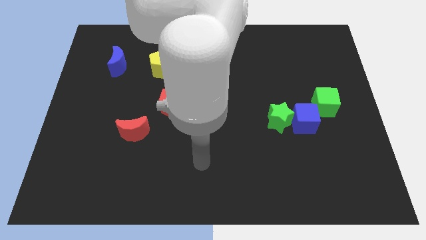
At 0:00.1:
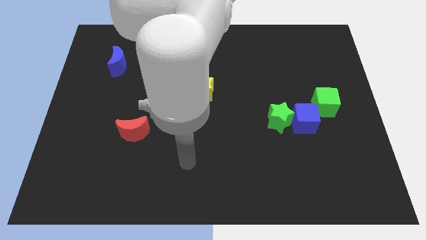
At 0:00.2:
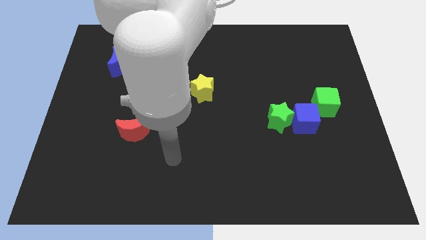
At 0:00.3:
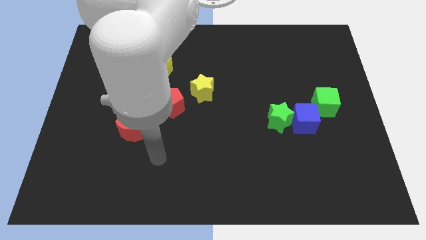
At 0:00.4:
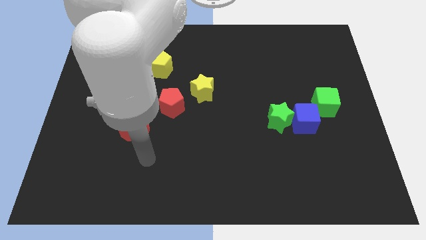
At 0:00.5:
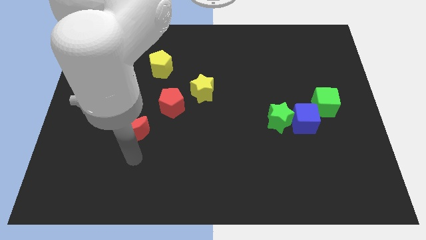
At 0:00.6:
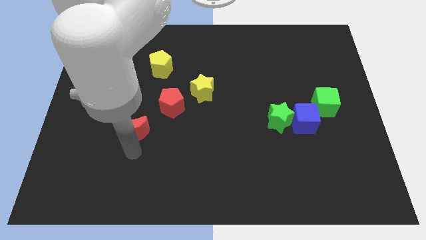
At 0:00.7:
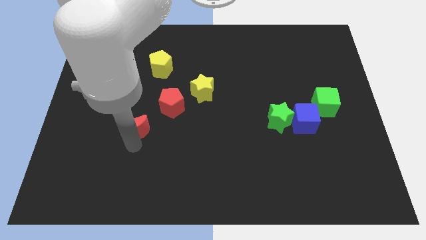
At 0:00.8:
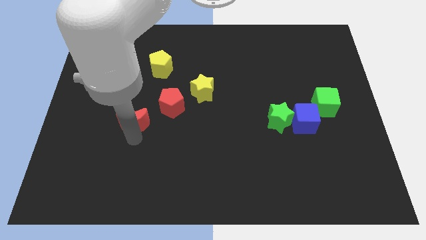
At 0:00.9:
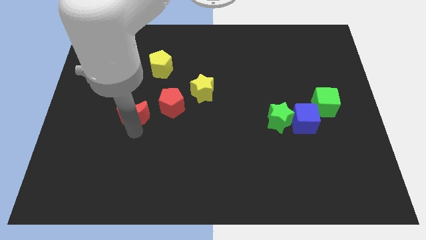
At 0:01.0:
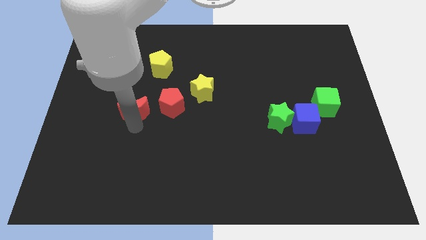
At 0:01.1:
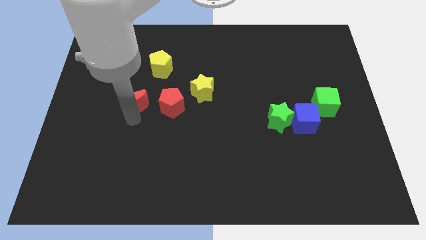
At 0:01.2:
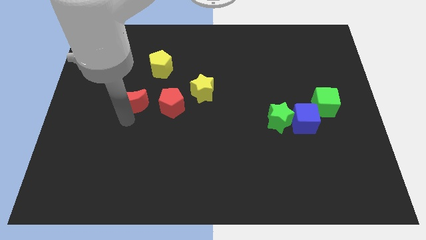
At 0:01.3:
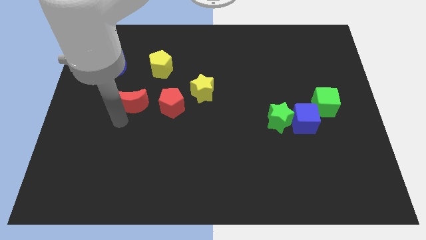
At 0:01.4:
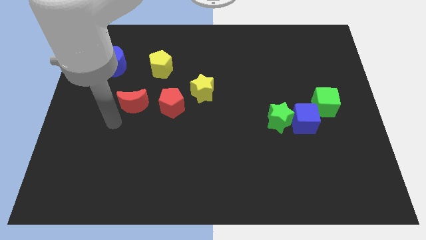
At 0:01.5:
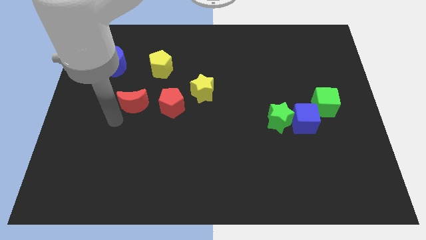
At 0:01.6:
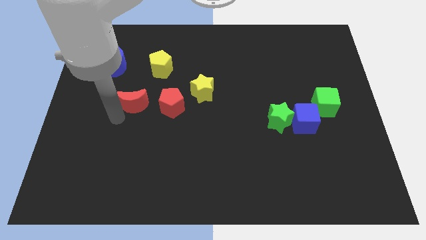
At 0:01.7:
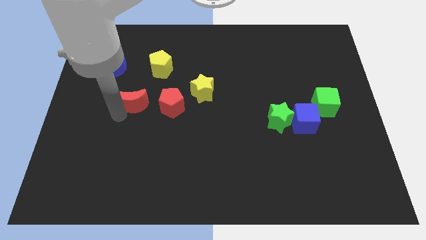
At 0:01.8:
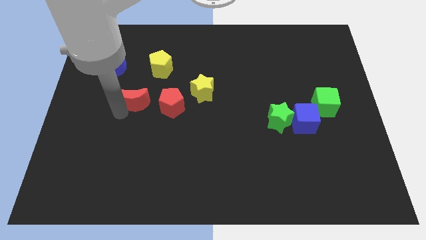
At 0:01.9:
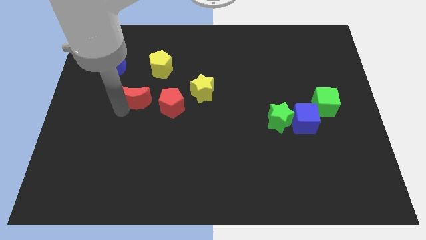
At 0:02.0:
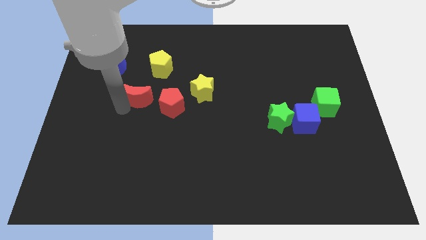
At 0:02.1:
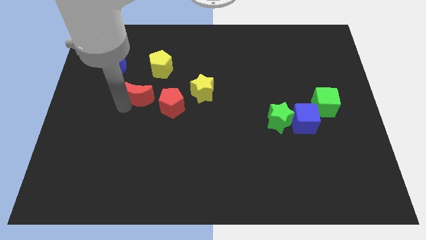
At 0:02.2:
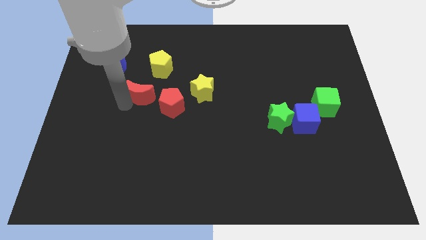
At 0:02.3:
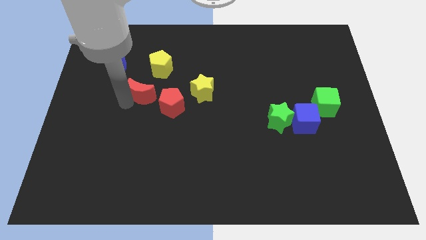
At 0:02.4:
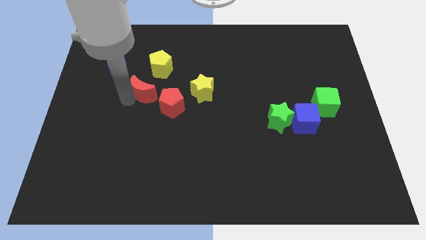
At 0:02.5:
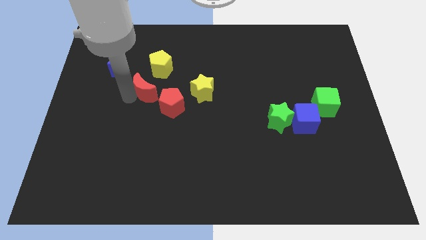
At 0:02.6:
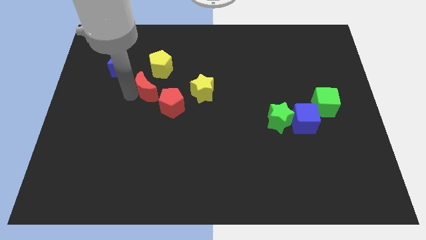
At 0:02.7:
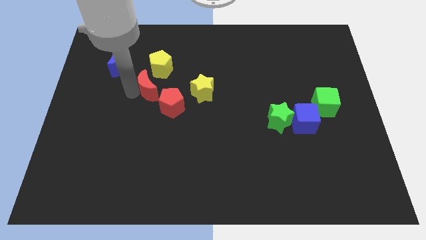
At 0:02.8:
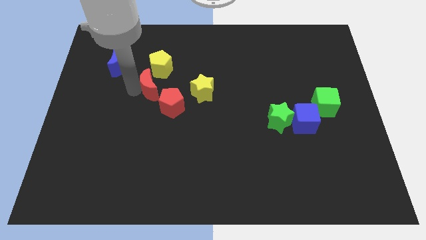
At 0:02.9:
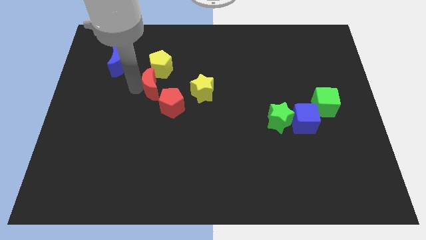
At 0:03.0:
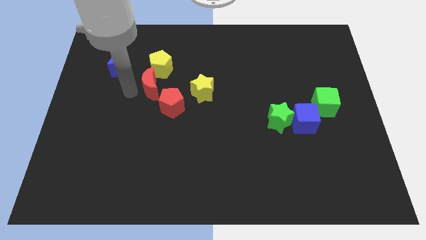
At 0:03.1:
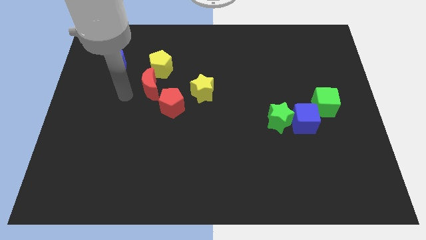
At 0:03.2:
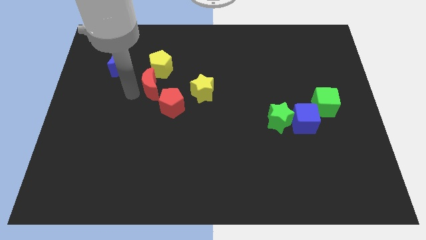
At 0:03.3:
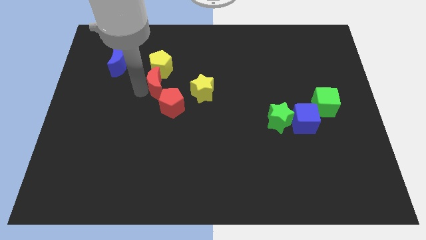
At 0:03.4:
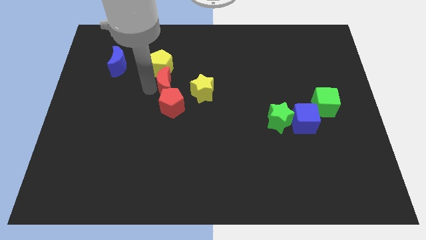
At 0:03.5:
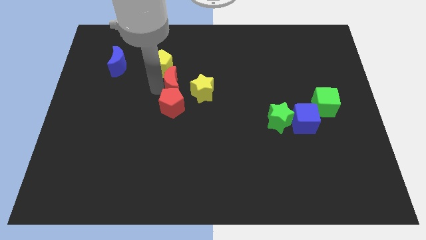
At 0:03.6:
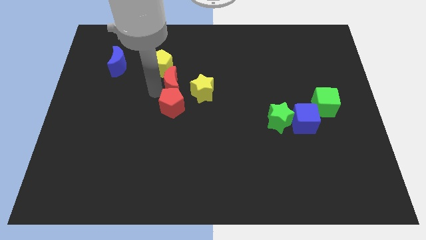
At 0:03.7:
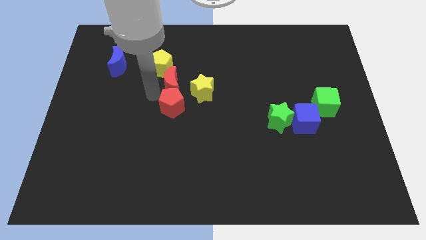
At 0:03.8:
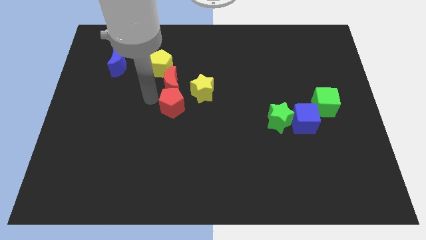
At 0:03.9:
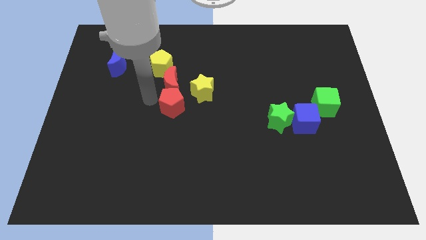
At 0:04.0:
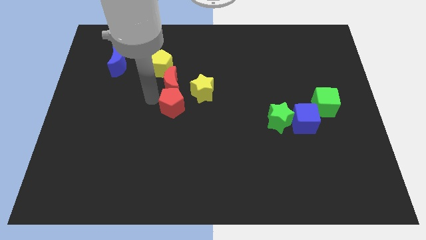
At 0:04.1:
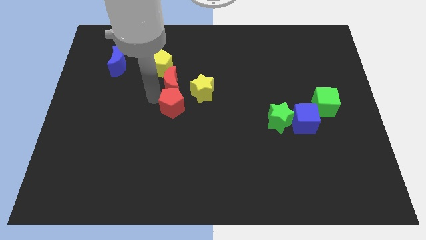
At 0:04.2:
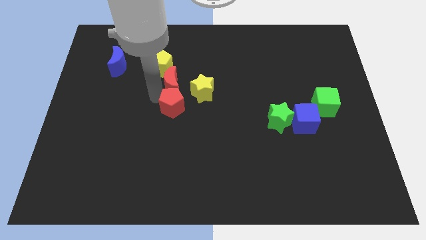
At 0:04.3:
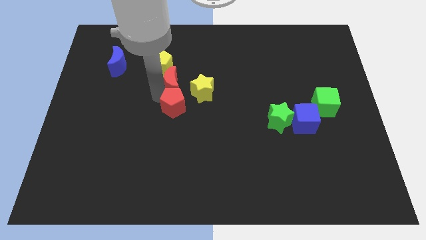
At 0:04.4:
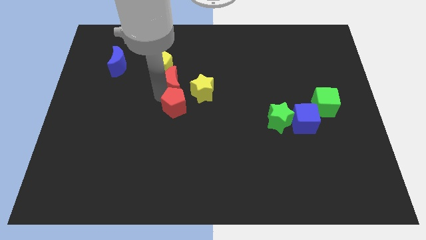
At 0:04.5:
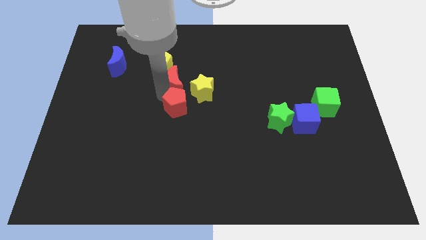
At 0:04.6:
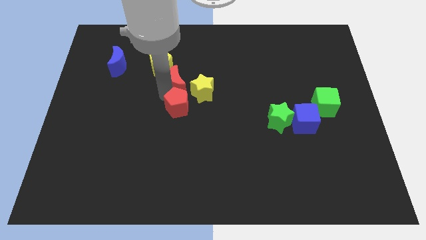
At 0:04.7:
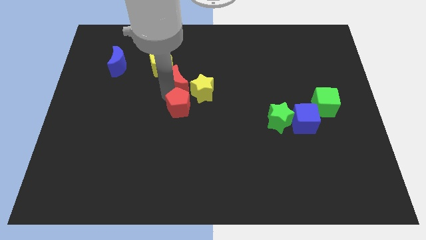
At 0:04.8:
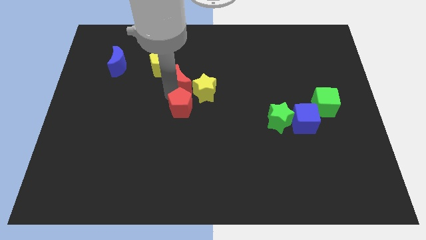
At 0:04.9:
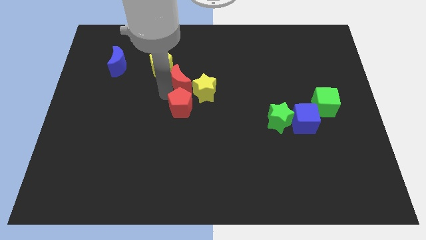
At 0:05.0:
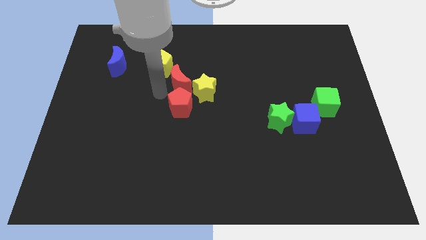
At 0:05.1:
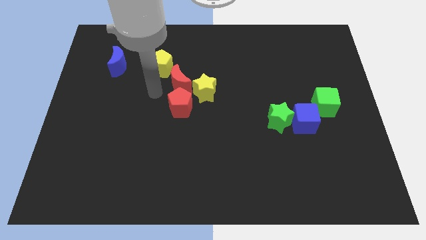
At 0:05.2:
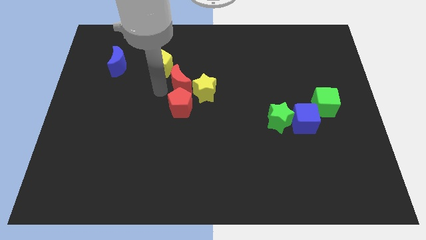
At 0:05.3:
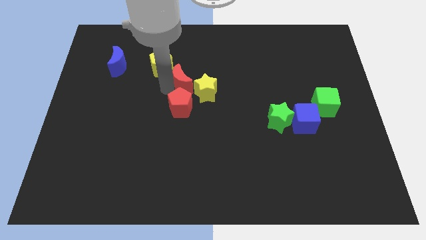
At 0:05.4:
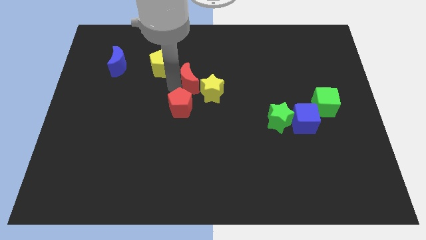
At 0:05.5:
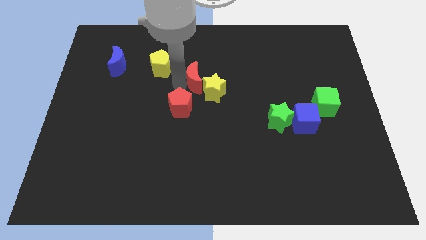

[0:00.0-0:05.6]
move the red moon up and right diagonally

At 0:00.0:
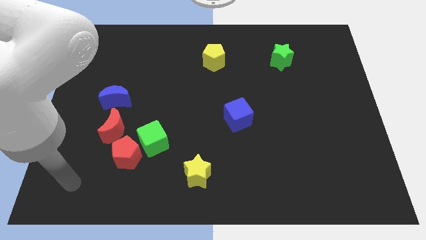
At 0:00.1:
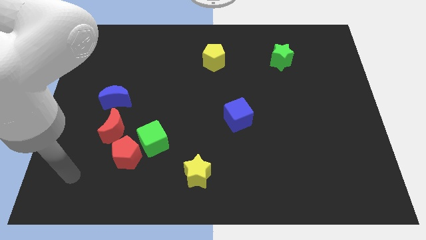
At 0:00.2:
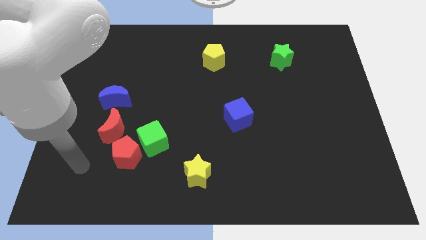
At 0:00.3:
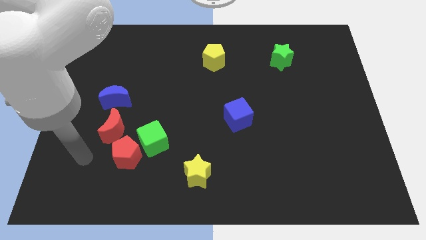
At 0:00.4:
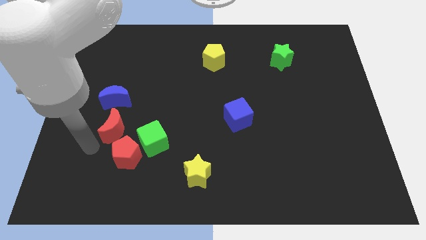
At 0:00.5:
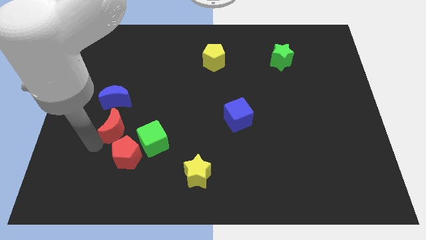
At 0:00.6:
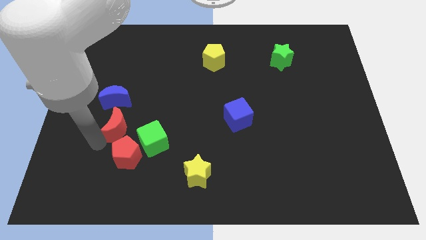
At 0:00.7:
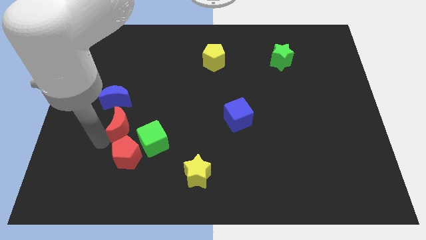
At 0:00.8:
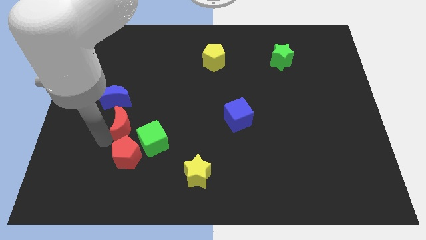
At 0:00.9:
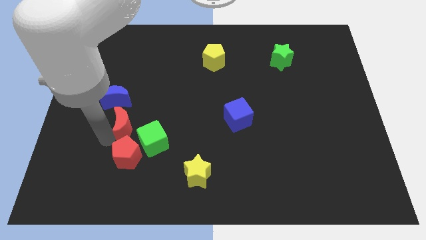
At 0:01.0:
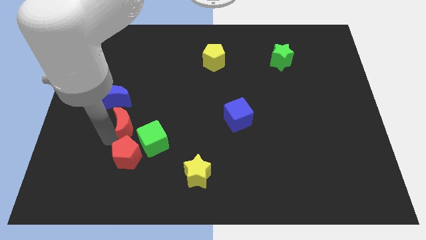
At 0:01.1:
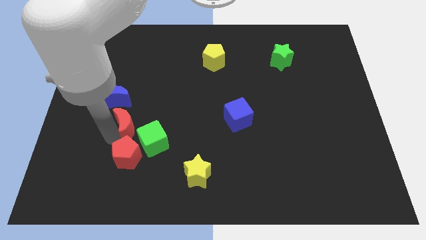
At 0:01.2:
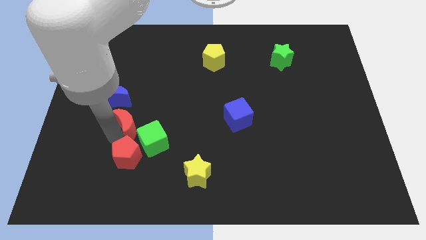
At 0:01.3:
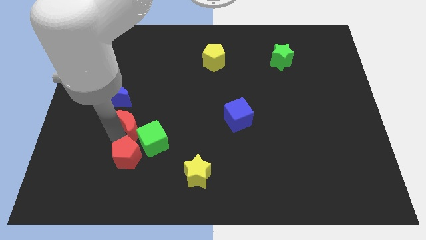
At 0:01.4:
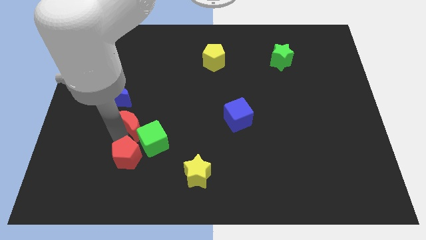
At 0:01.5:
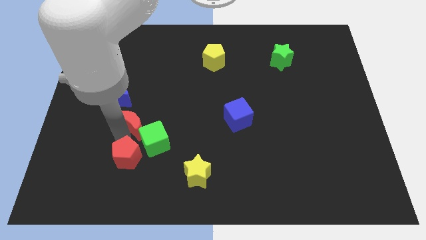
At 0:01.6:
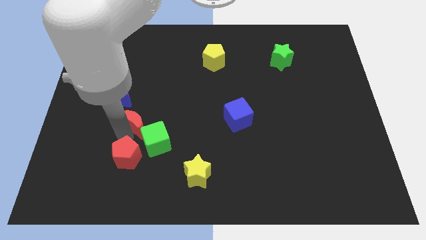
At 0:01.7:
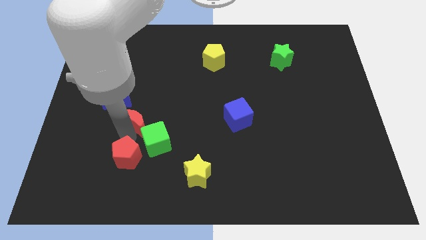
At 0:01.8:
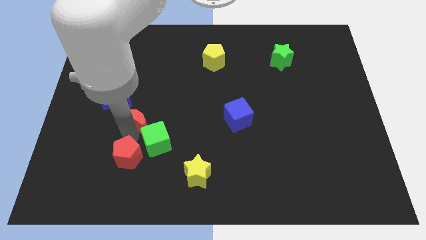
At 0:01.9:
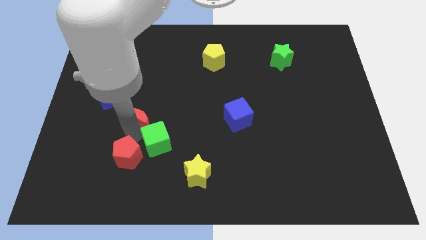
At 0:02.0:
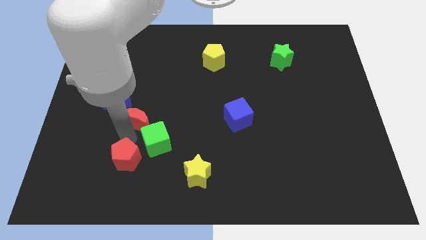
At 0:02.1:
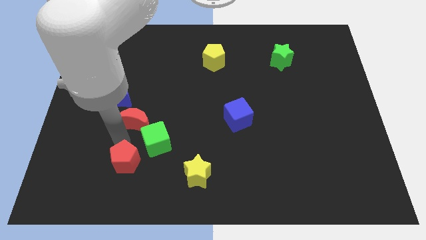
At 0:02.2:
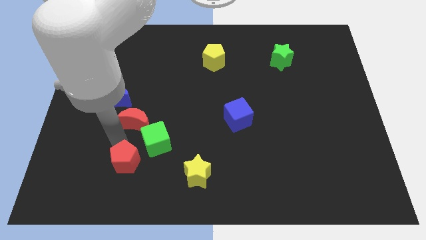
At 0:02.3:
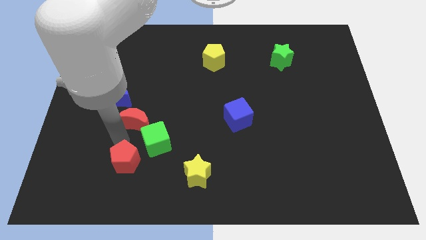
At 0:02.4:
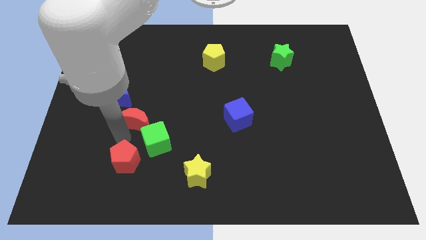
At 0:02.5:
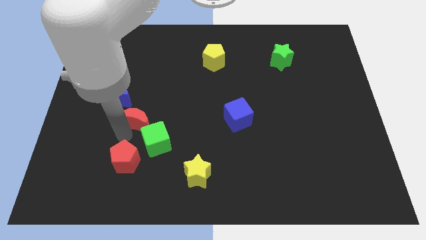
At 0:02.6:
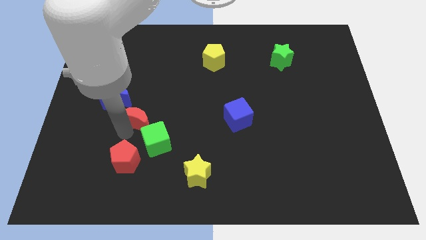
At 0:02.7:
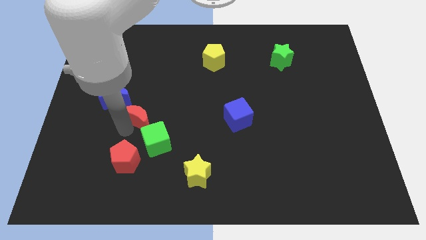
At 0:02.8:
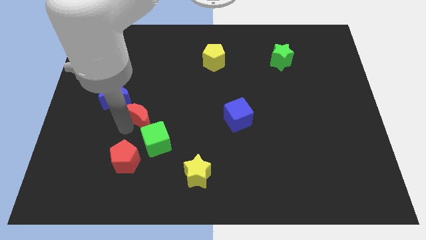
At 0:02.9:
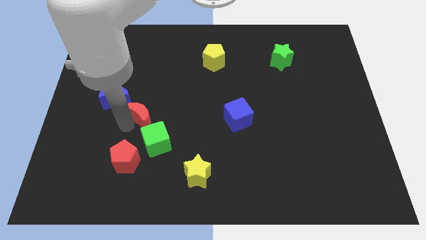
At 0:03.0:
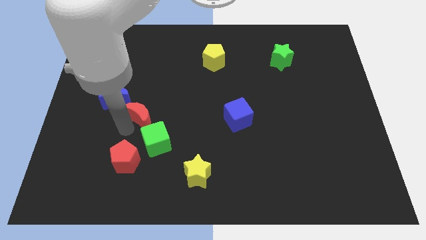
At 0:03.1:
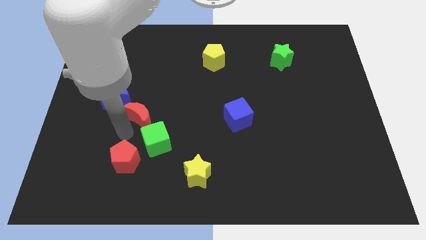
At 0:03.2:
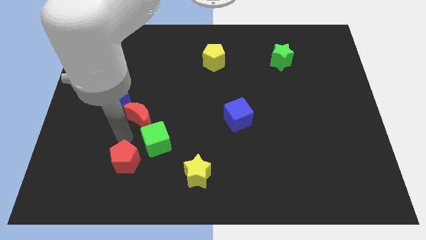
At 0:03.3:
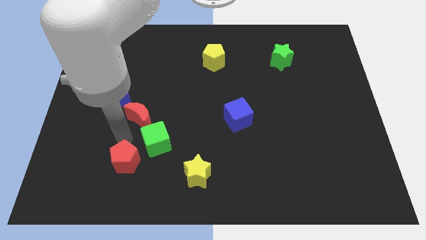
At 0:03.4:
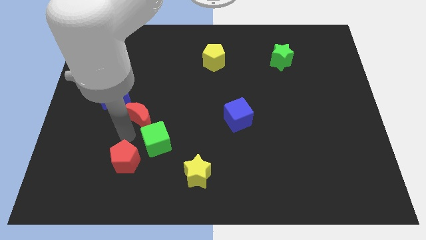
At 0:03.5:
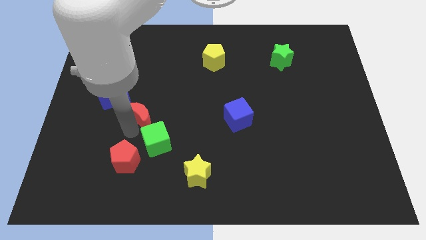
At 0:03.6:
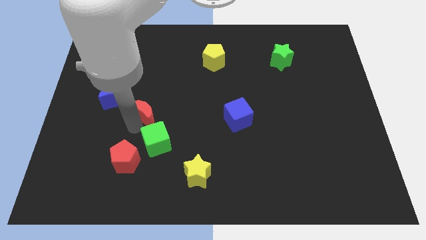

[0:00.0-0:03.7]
slightly push the red moon upwards and then right
